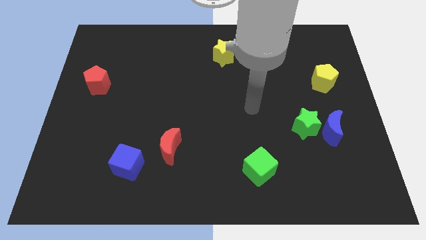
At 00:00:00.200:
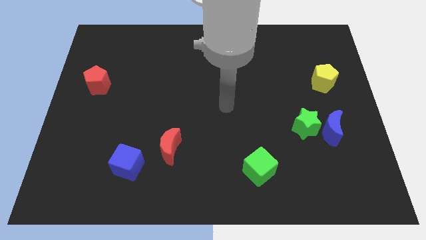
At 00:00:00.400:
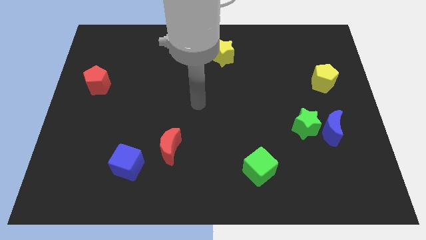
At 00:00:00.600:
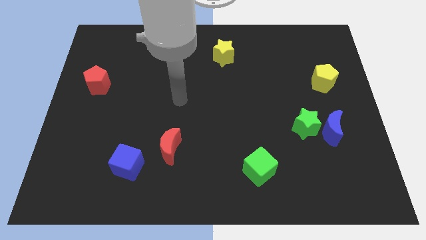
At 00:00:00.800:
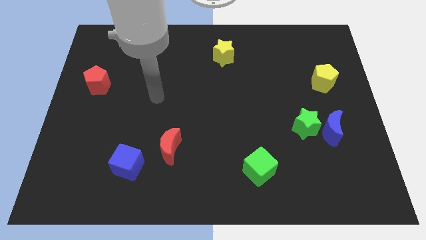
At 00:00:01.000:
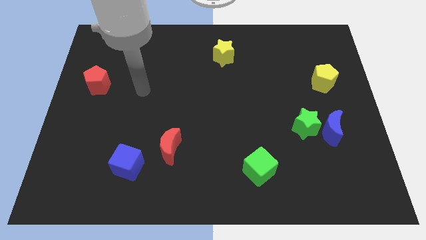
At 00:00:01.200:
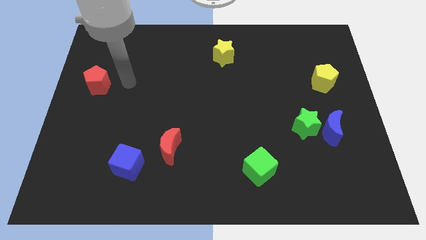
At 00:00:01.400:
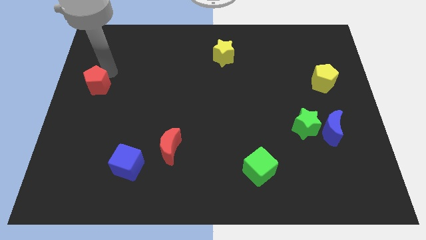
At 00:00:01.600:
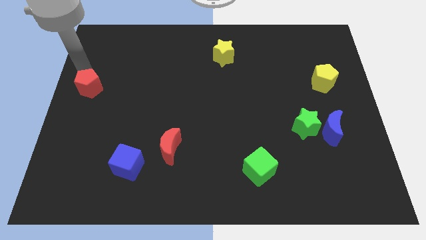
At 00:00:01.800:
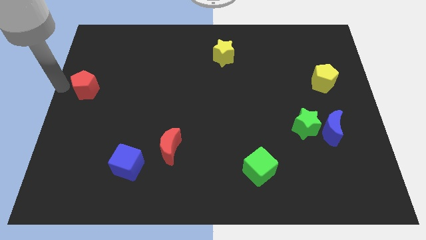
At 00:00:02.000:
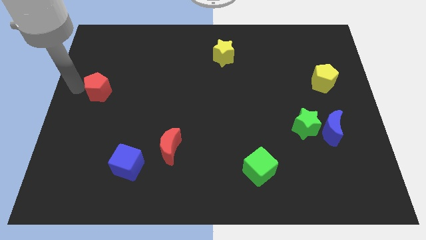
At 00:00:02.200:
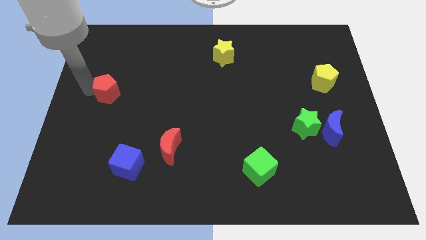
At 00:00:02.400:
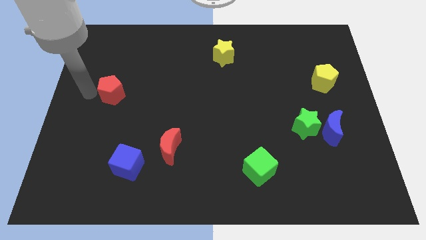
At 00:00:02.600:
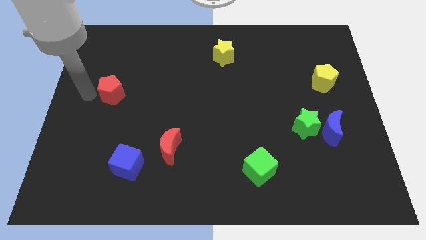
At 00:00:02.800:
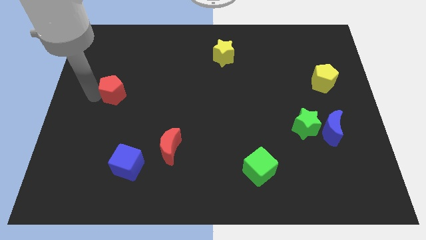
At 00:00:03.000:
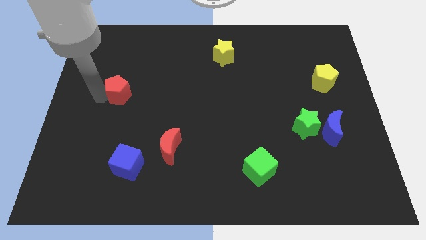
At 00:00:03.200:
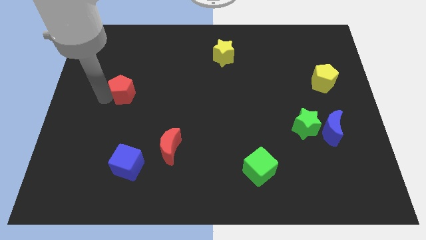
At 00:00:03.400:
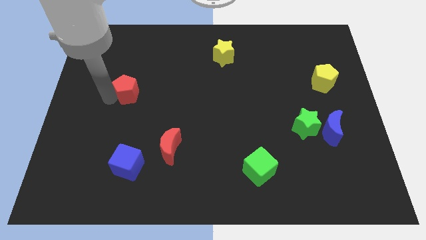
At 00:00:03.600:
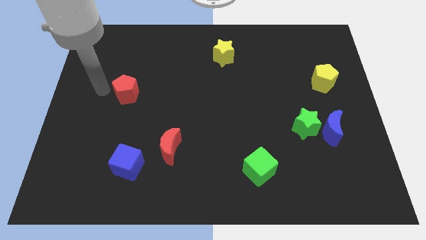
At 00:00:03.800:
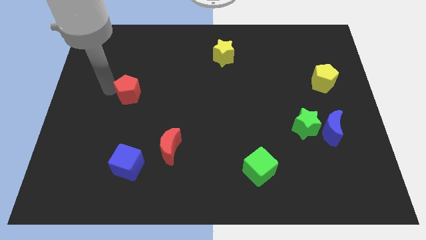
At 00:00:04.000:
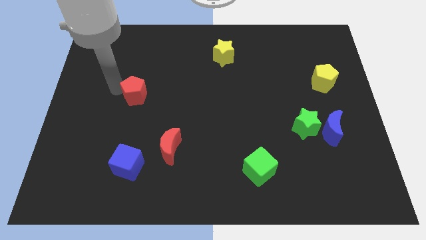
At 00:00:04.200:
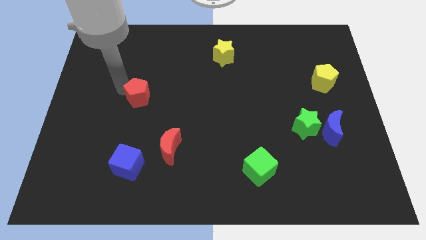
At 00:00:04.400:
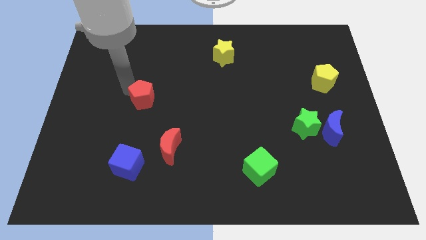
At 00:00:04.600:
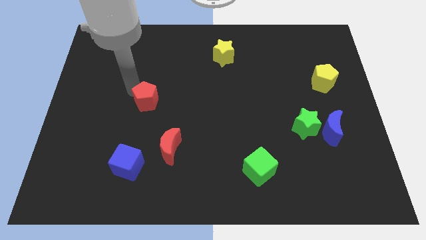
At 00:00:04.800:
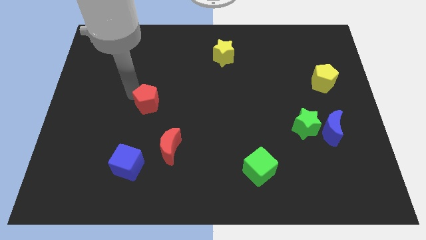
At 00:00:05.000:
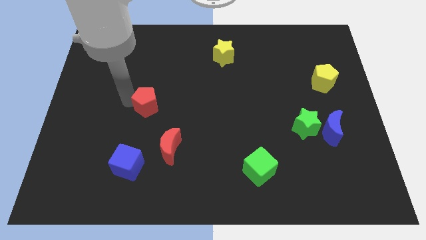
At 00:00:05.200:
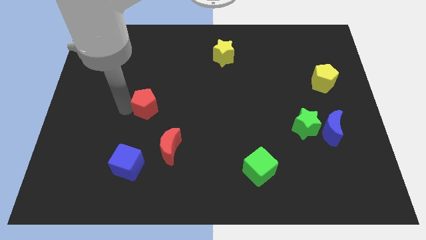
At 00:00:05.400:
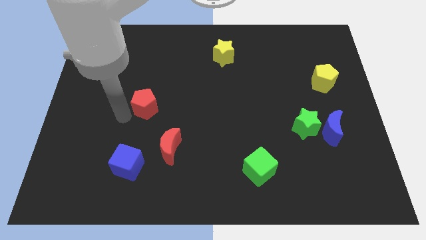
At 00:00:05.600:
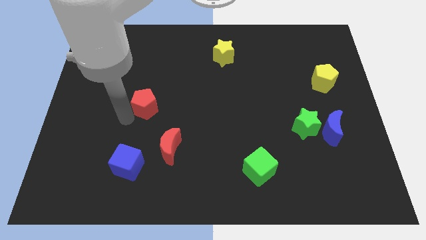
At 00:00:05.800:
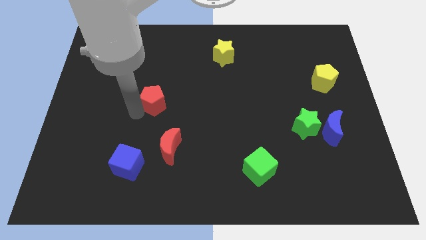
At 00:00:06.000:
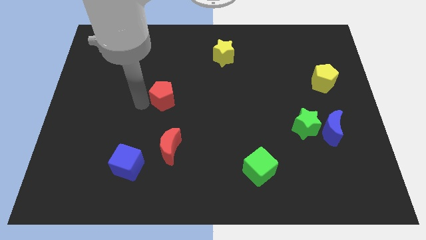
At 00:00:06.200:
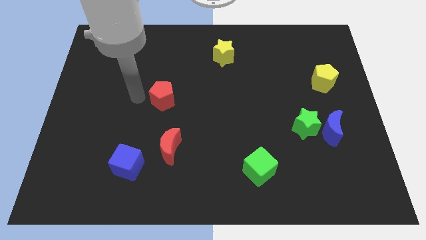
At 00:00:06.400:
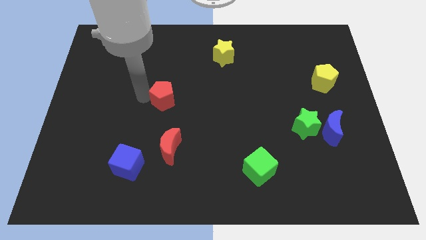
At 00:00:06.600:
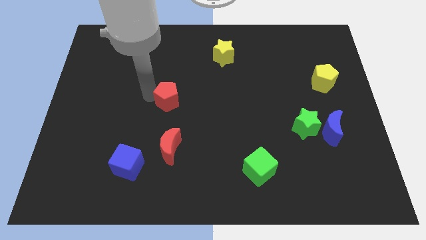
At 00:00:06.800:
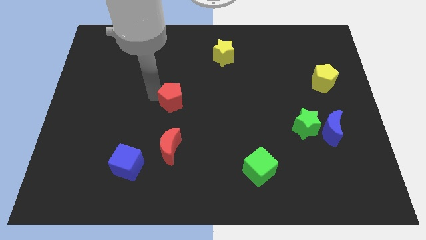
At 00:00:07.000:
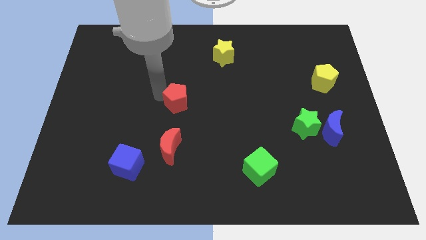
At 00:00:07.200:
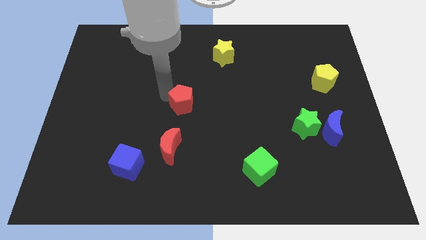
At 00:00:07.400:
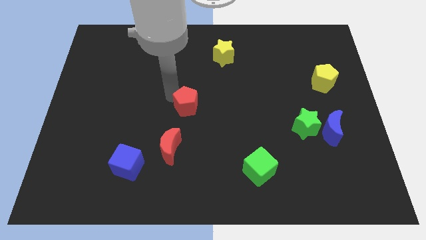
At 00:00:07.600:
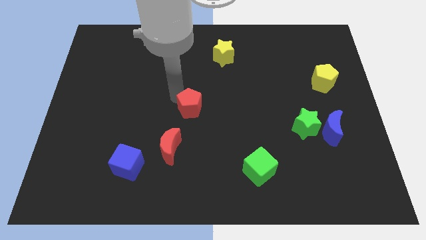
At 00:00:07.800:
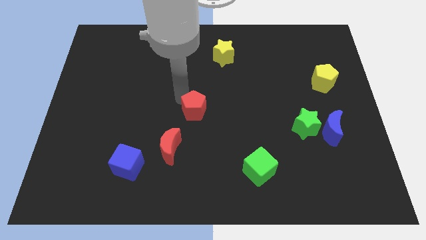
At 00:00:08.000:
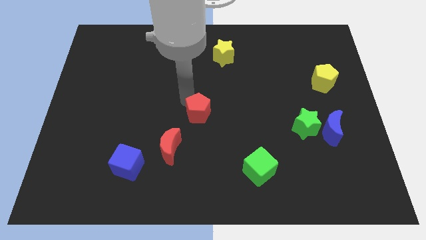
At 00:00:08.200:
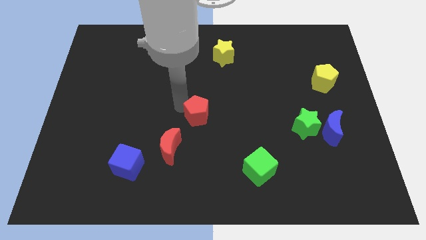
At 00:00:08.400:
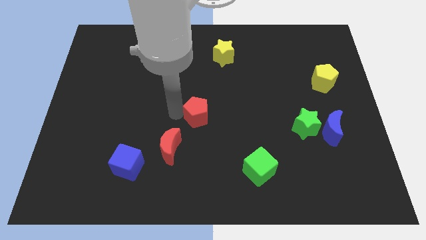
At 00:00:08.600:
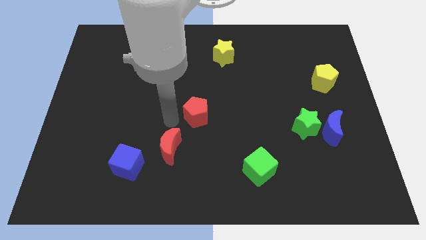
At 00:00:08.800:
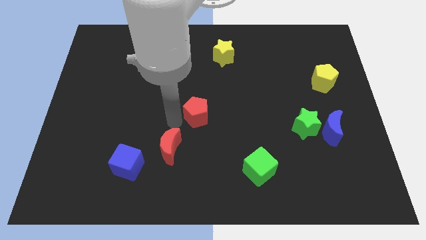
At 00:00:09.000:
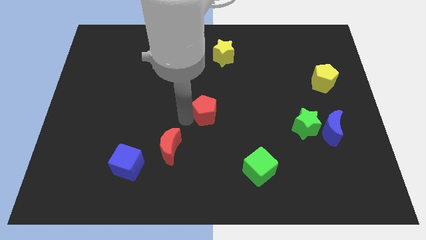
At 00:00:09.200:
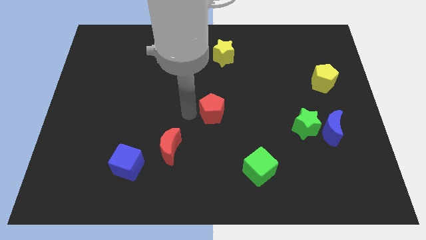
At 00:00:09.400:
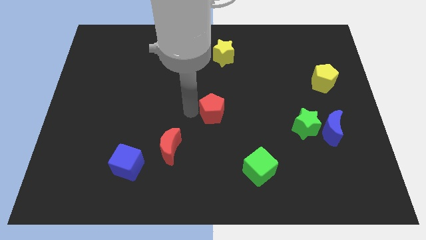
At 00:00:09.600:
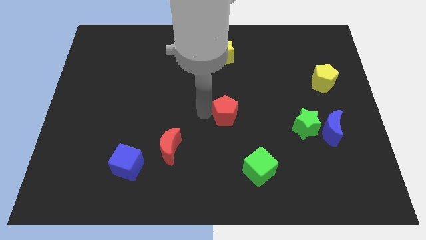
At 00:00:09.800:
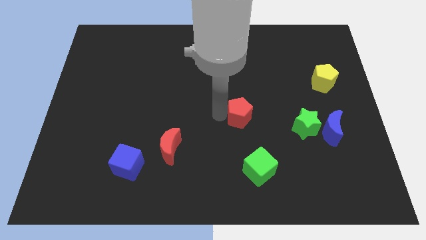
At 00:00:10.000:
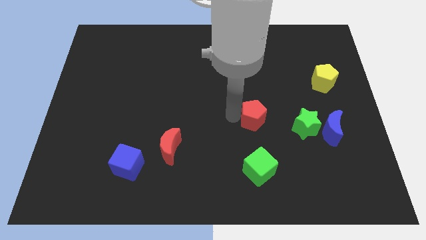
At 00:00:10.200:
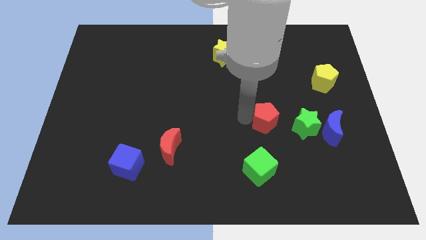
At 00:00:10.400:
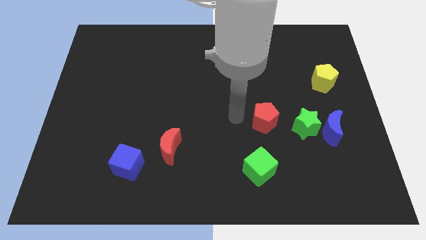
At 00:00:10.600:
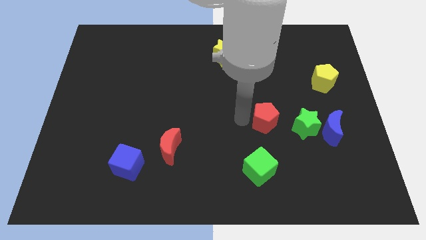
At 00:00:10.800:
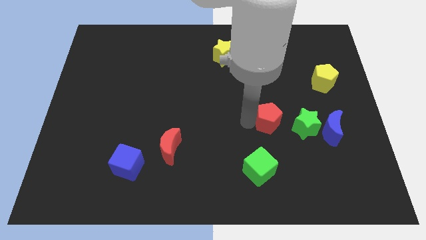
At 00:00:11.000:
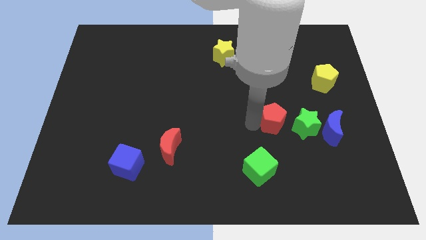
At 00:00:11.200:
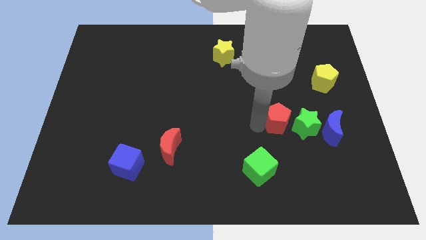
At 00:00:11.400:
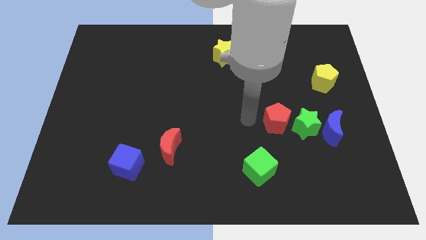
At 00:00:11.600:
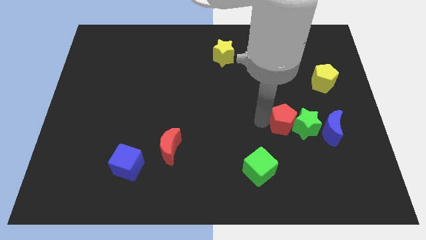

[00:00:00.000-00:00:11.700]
slide the red pentagon towards the green star

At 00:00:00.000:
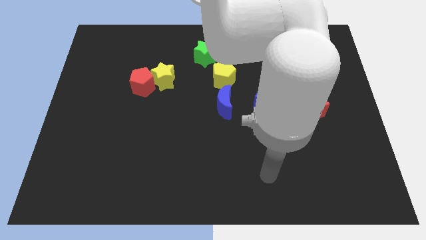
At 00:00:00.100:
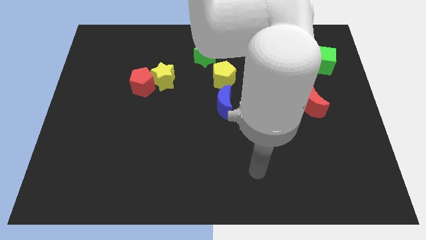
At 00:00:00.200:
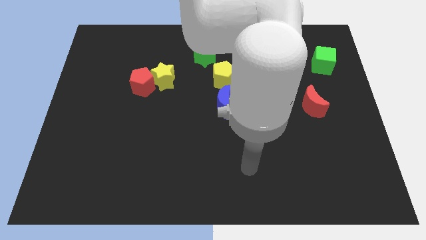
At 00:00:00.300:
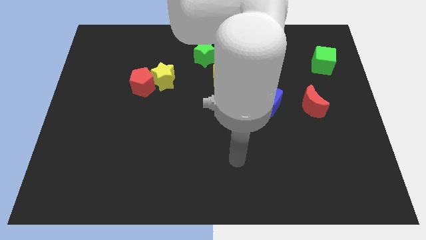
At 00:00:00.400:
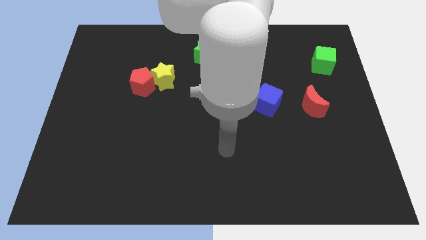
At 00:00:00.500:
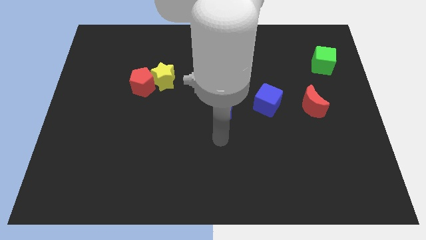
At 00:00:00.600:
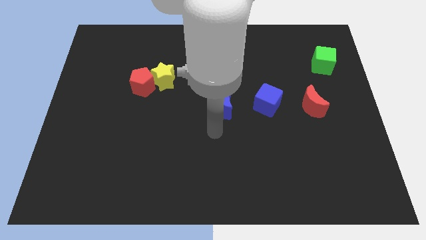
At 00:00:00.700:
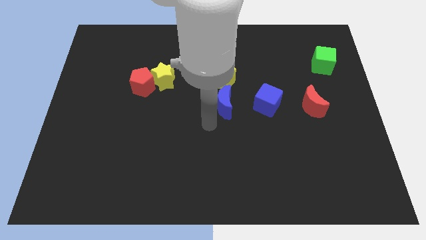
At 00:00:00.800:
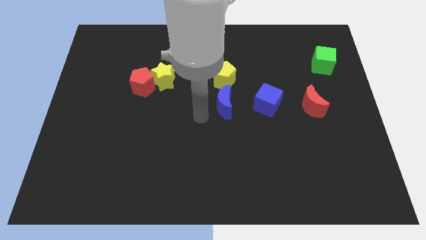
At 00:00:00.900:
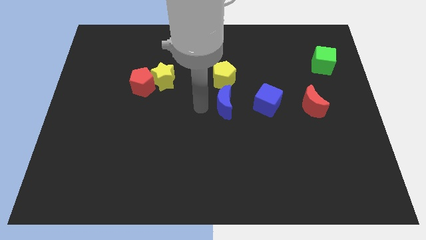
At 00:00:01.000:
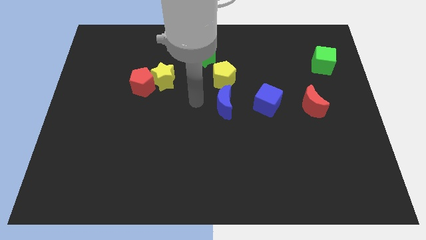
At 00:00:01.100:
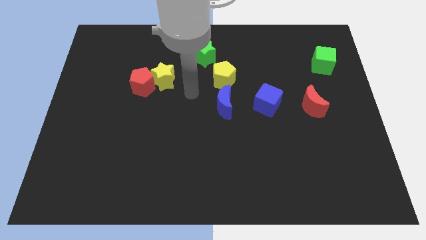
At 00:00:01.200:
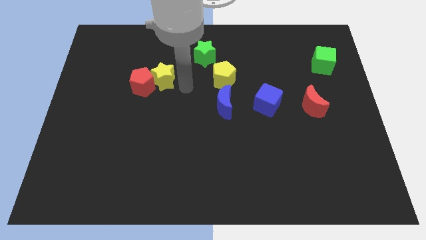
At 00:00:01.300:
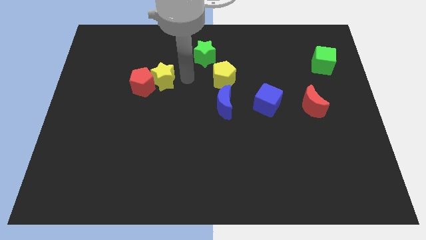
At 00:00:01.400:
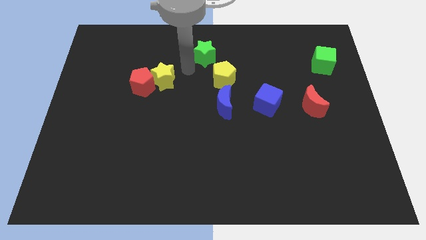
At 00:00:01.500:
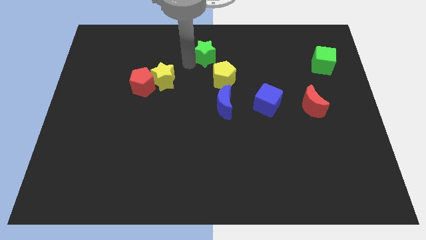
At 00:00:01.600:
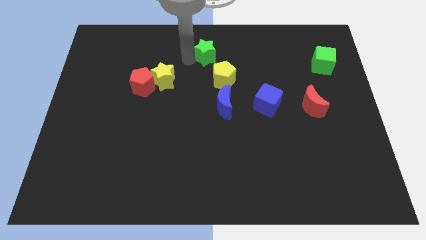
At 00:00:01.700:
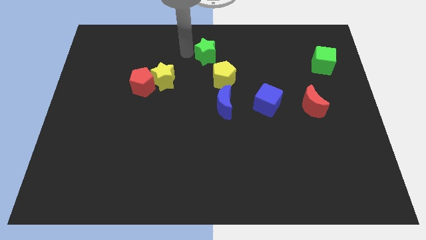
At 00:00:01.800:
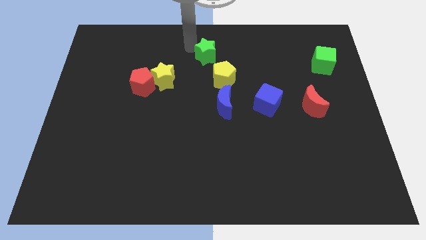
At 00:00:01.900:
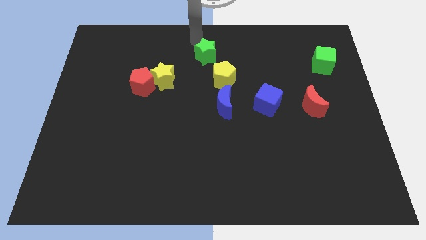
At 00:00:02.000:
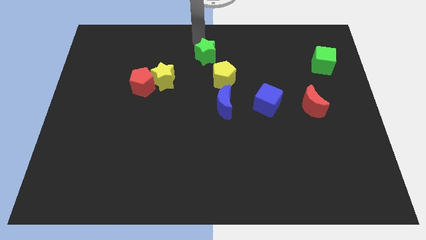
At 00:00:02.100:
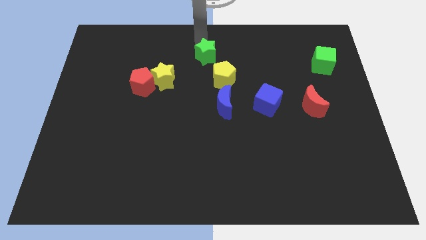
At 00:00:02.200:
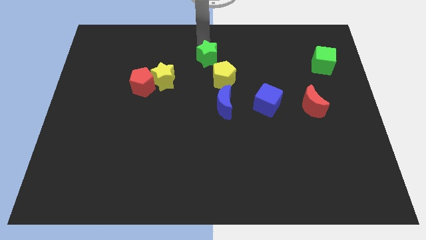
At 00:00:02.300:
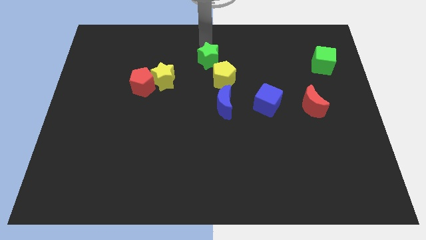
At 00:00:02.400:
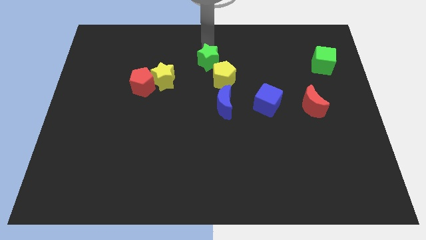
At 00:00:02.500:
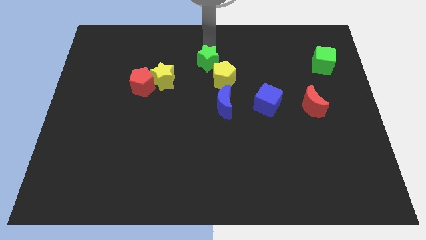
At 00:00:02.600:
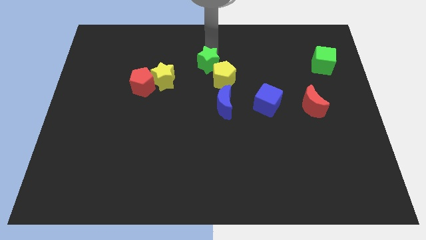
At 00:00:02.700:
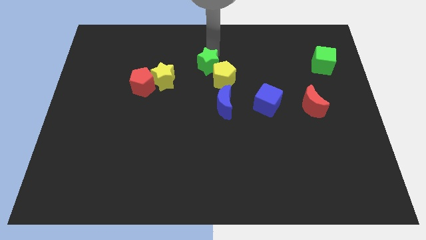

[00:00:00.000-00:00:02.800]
put the green star next to the yellow pentagon
